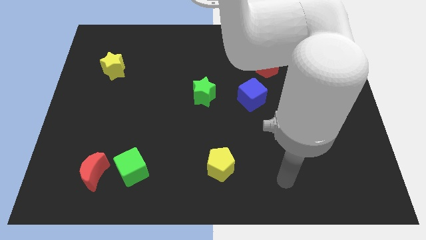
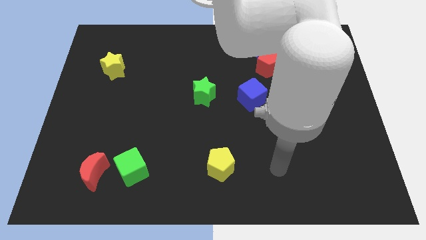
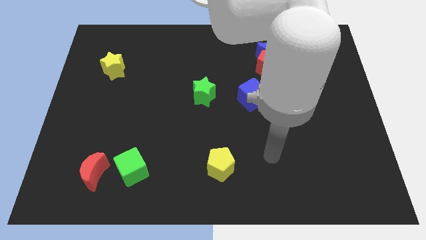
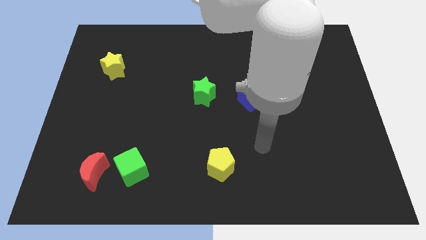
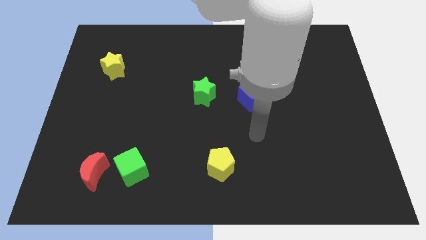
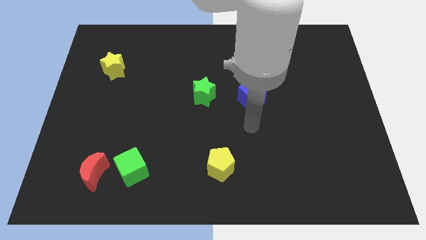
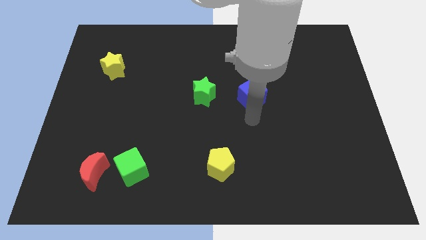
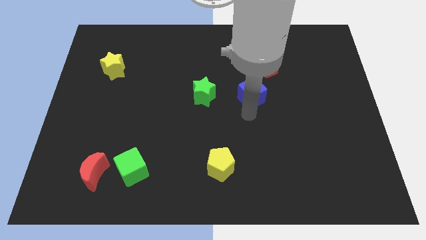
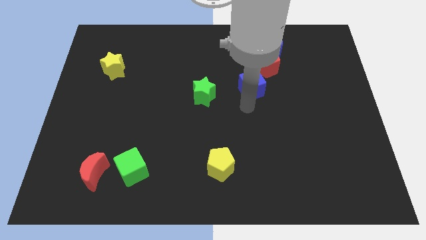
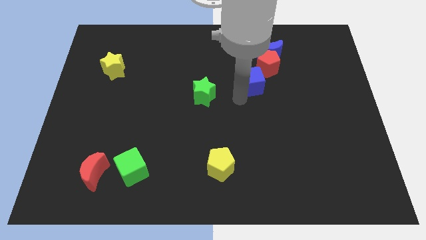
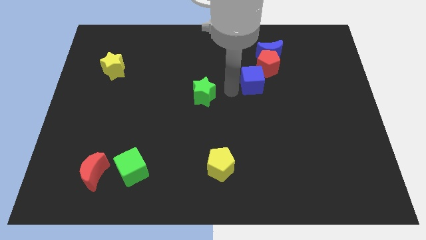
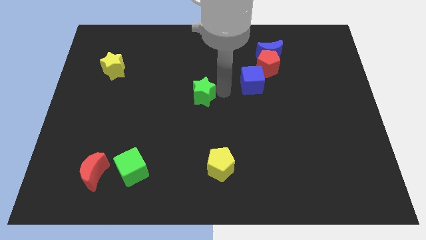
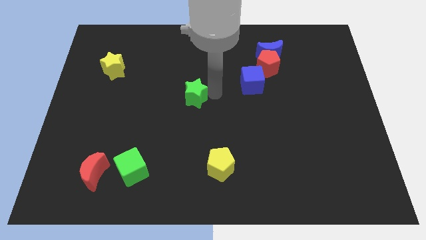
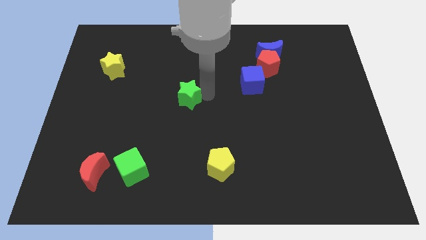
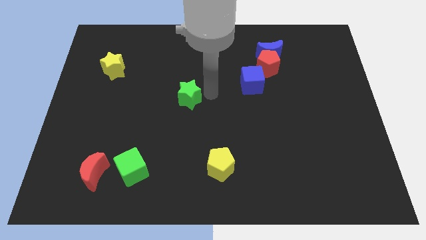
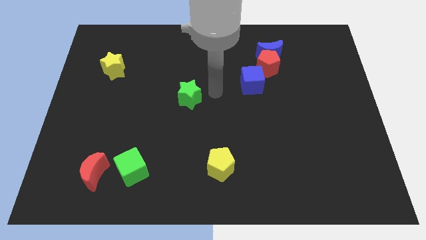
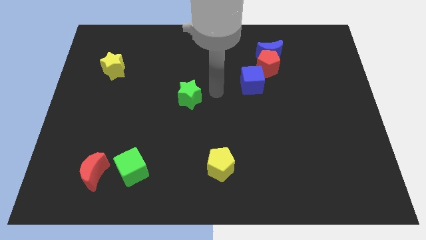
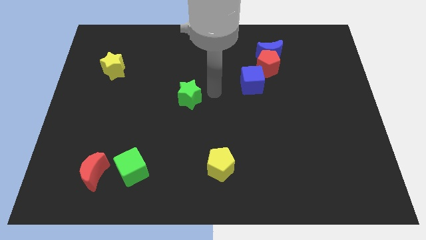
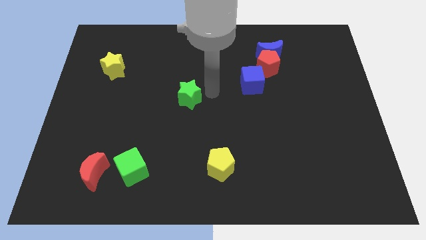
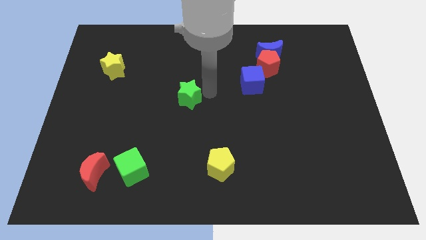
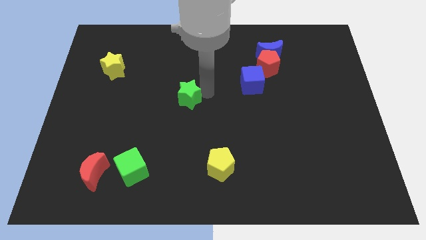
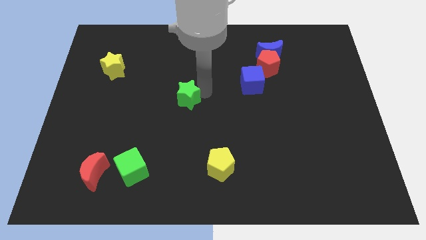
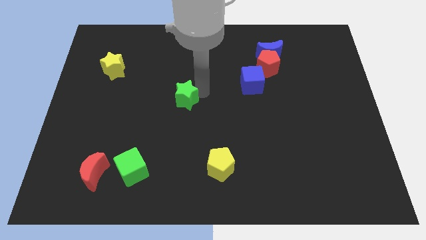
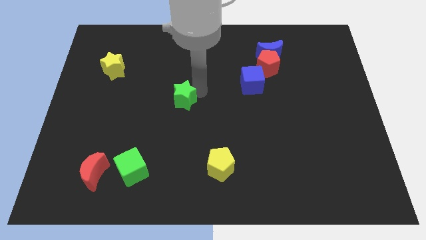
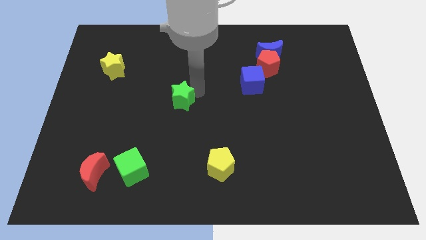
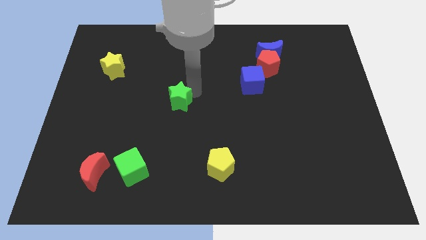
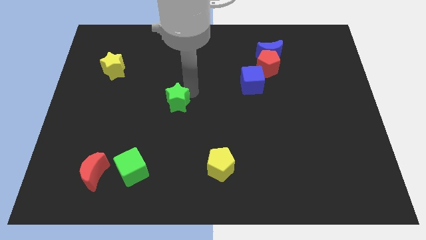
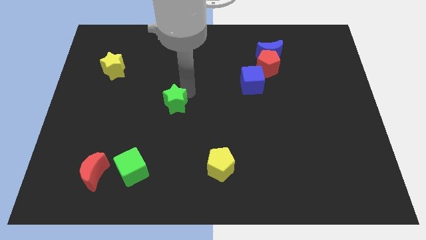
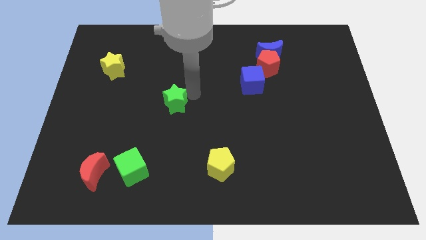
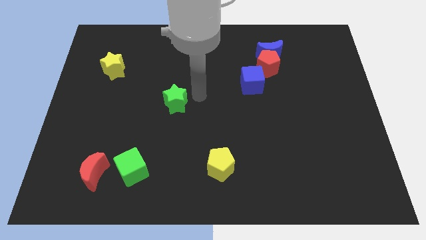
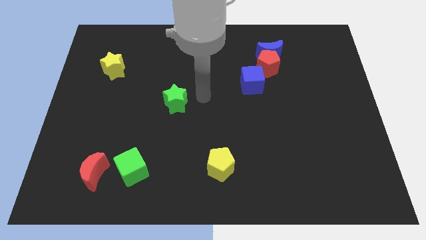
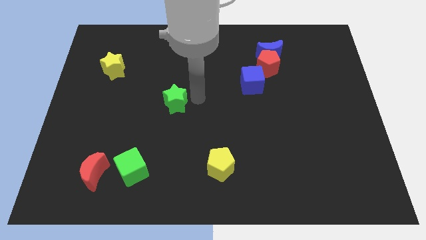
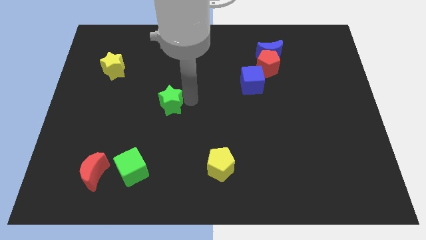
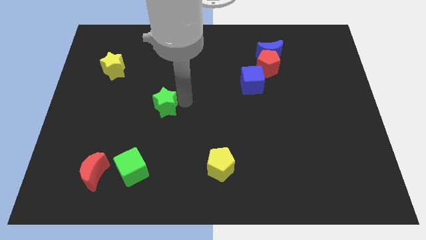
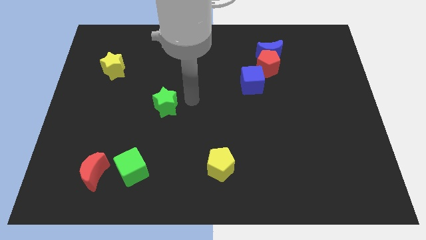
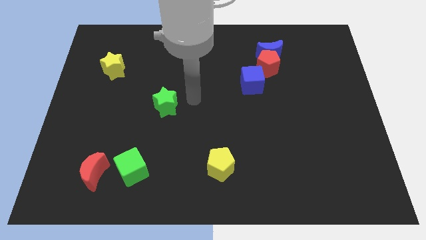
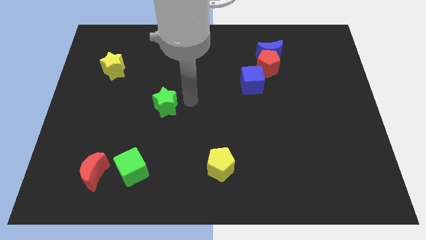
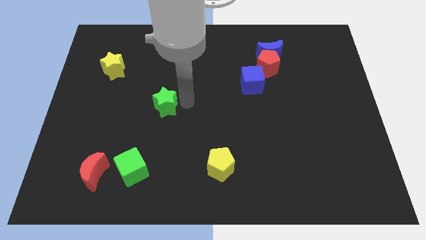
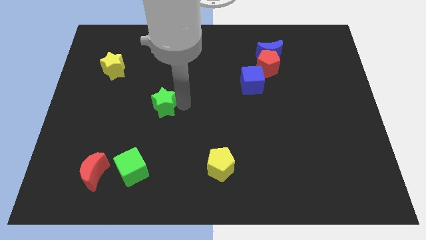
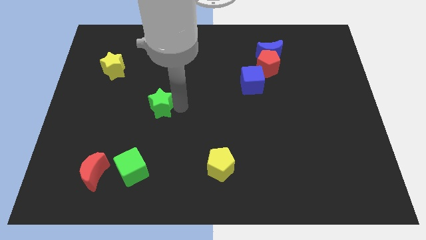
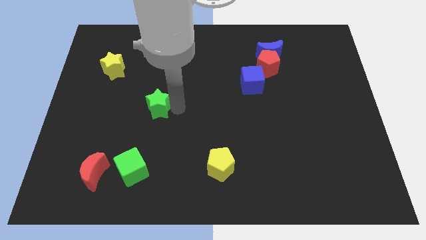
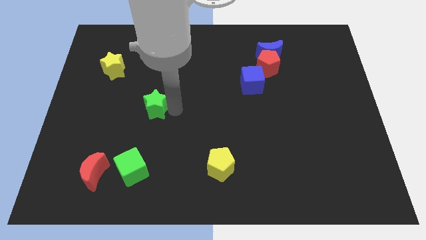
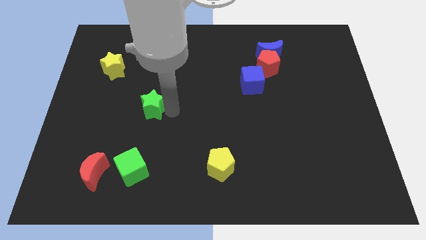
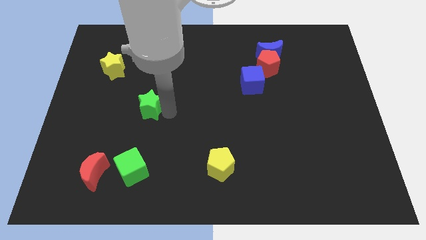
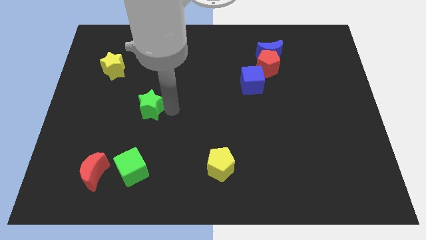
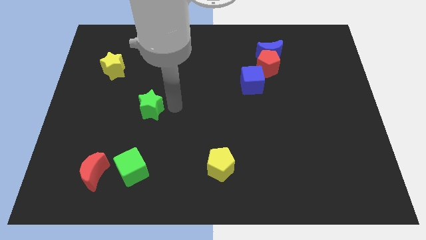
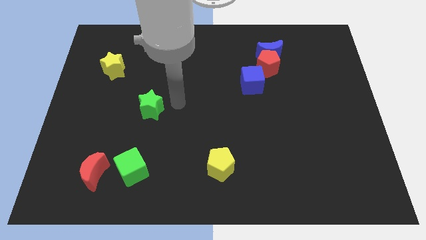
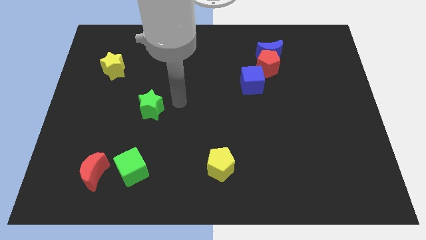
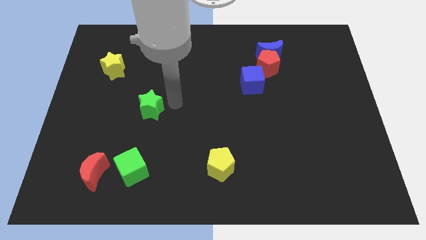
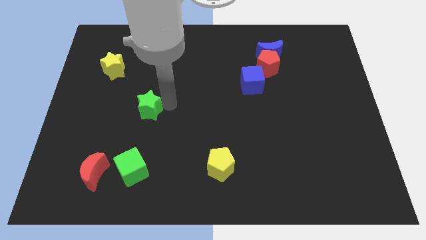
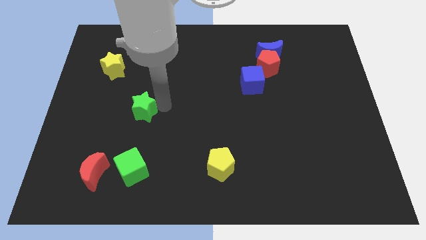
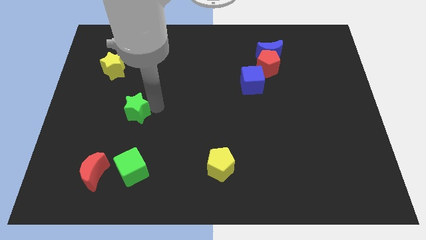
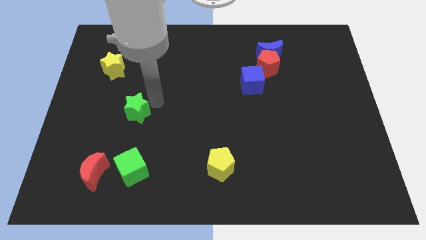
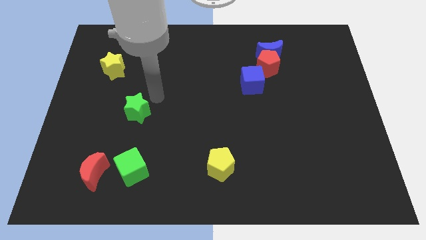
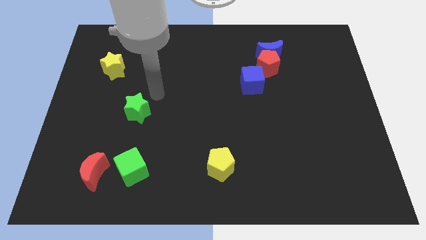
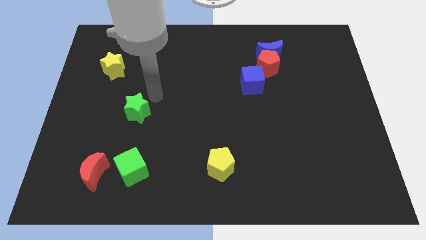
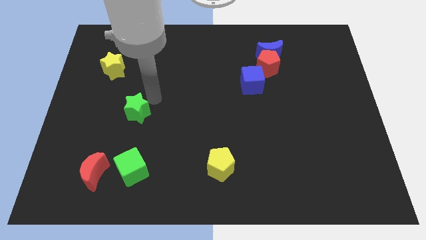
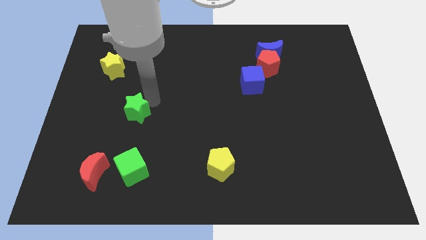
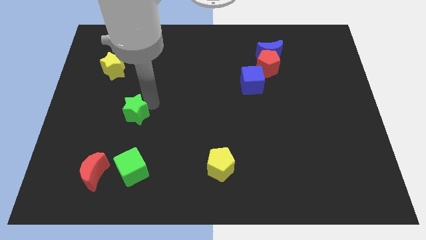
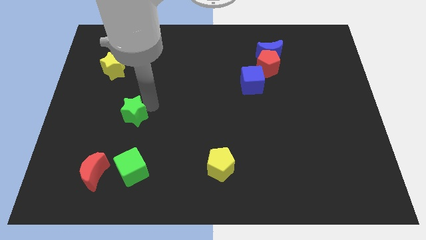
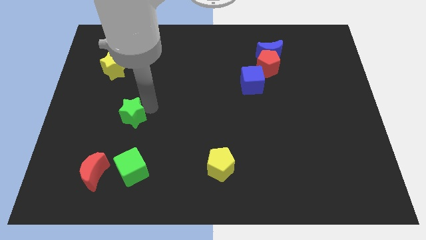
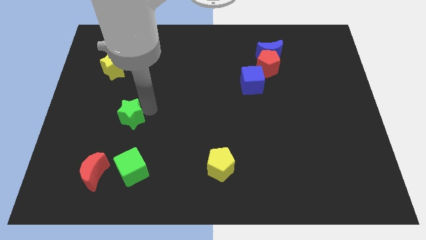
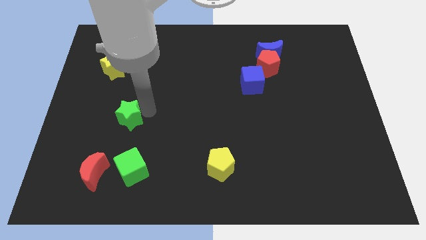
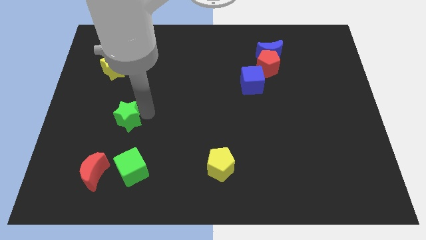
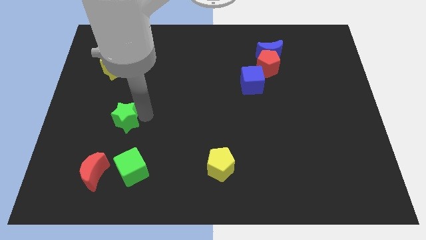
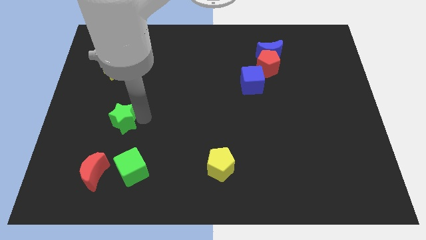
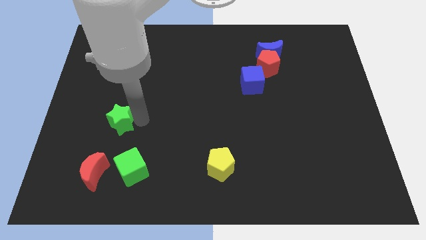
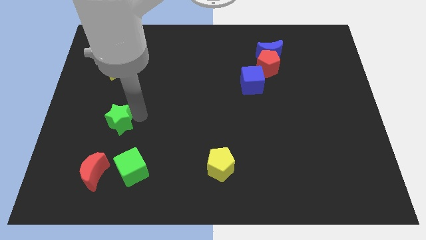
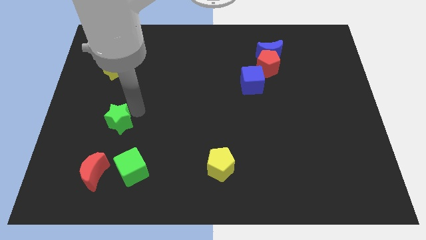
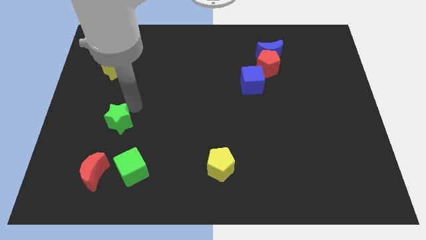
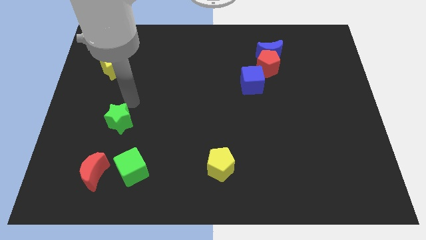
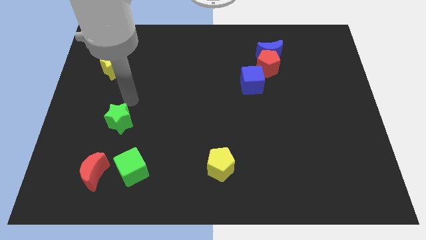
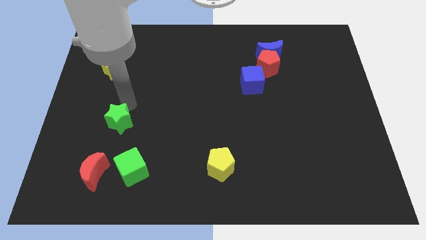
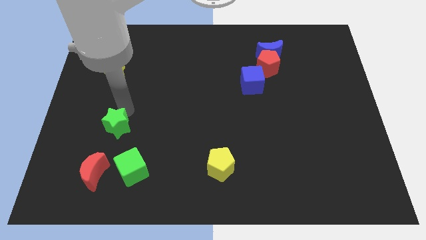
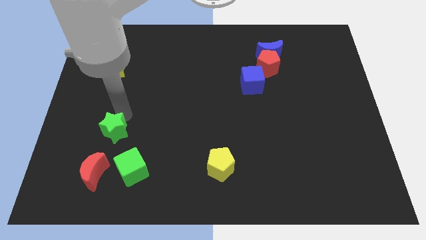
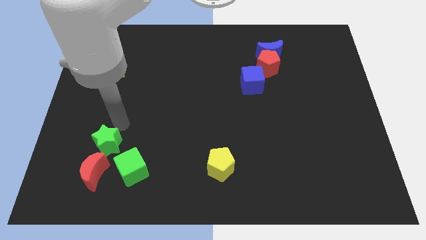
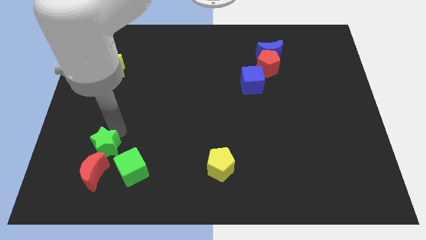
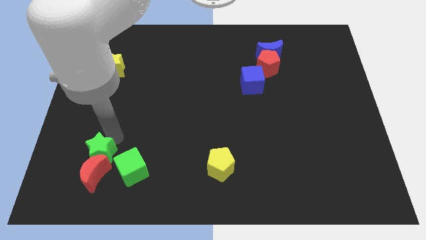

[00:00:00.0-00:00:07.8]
put the green star just left of the green cube
